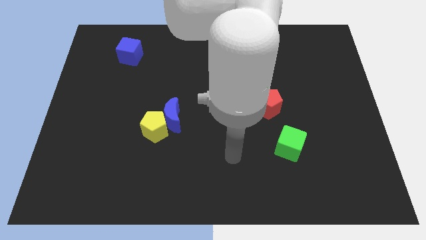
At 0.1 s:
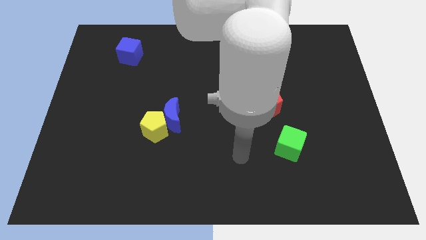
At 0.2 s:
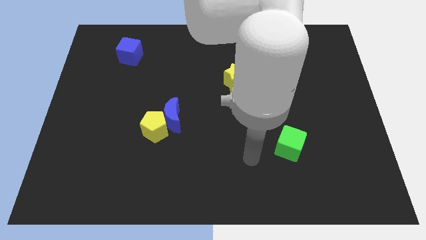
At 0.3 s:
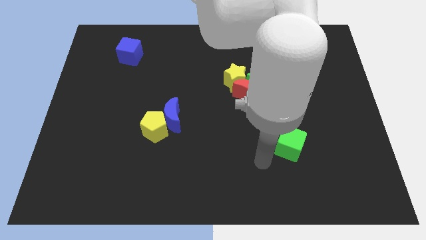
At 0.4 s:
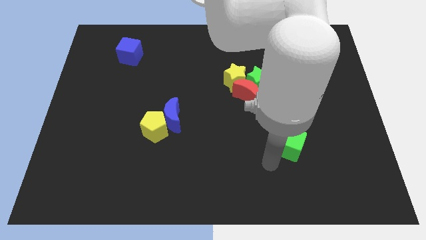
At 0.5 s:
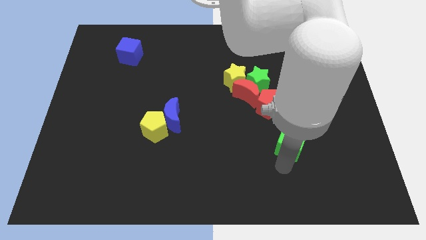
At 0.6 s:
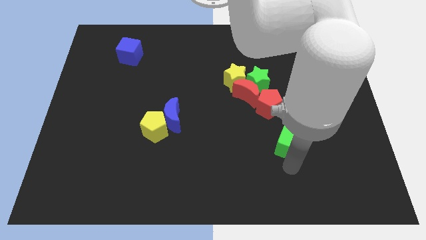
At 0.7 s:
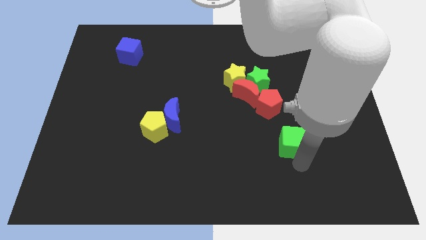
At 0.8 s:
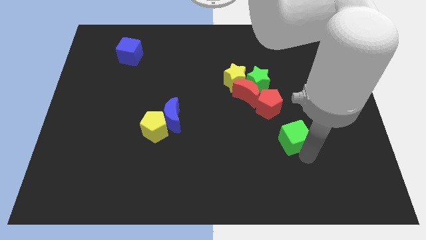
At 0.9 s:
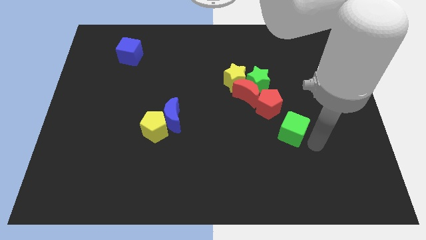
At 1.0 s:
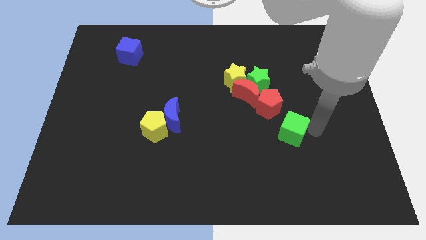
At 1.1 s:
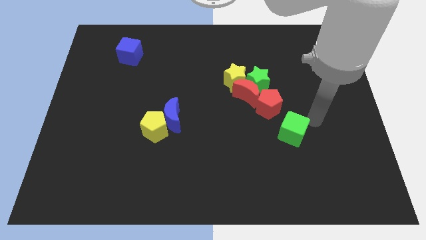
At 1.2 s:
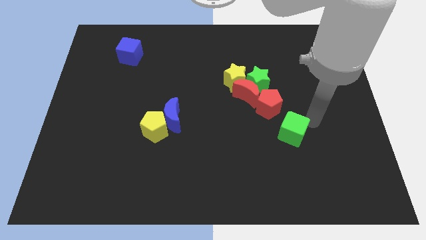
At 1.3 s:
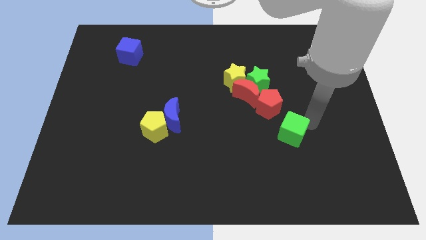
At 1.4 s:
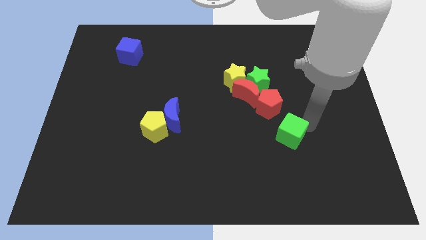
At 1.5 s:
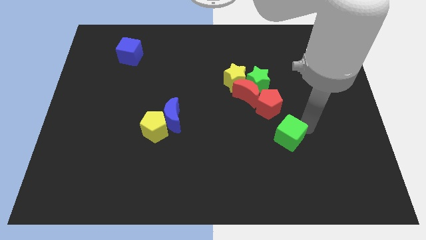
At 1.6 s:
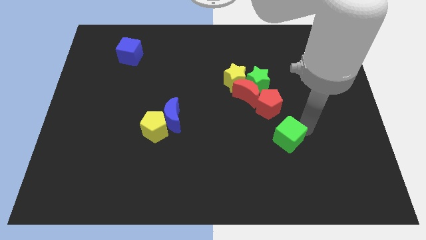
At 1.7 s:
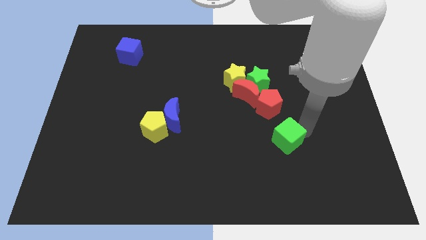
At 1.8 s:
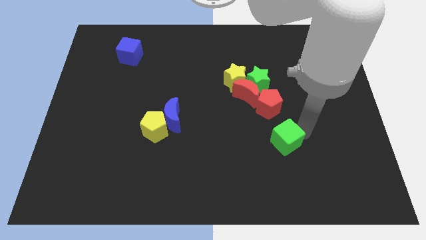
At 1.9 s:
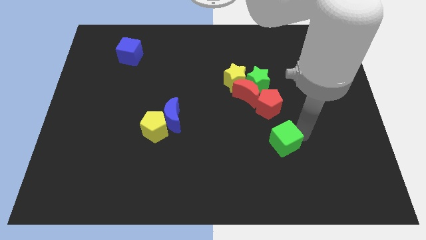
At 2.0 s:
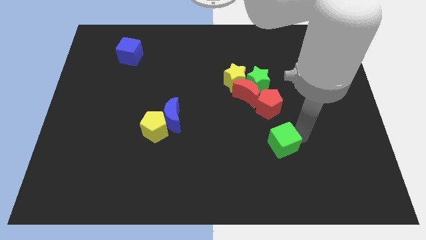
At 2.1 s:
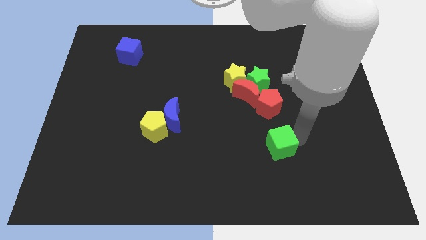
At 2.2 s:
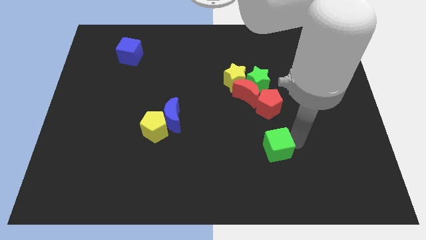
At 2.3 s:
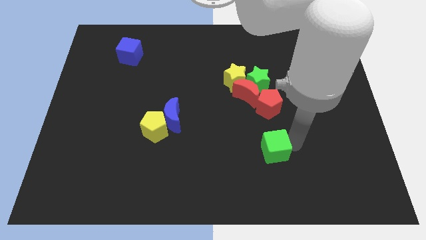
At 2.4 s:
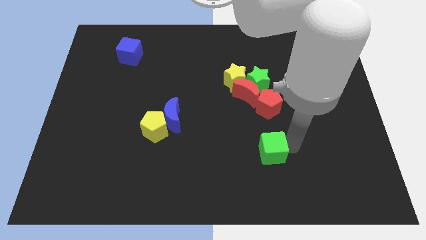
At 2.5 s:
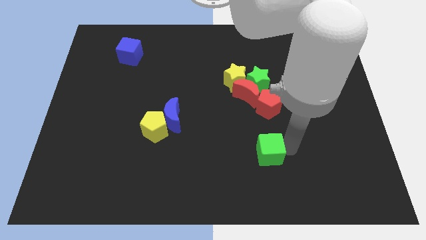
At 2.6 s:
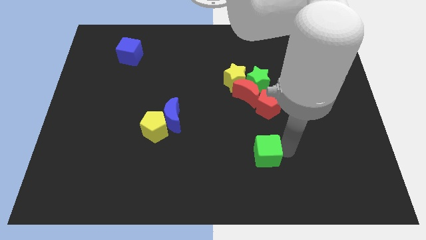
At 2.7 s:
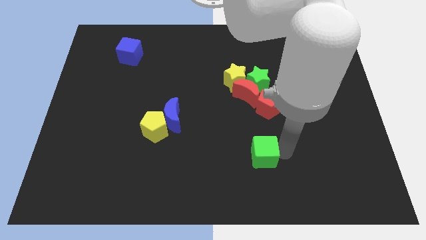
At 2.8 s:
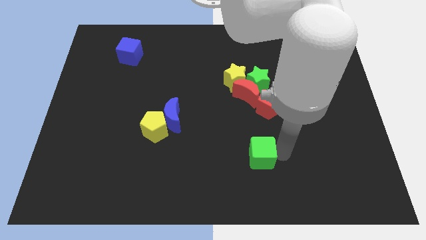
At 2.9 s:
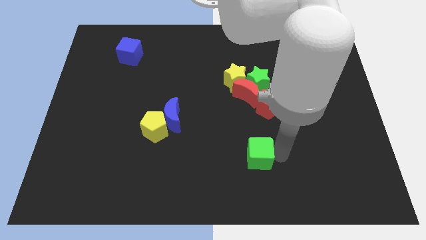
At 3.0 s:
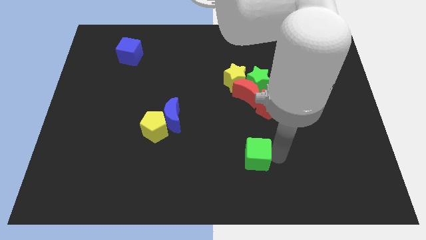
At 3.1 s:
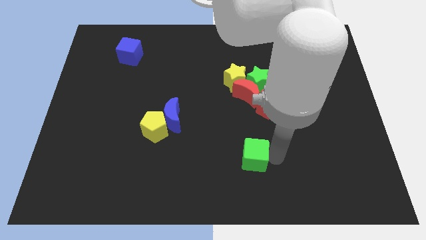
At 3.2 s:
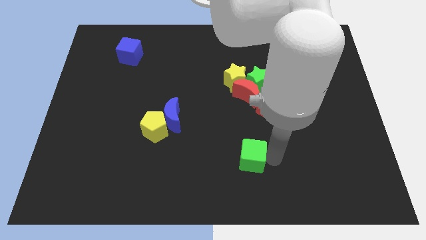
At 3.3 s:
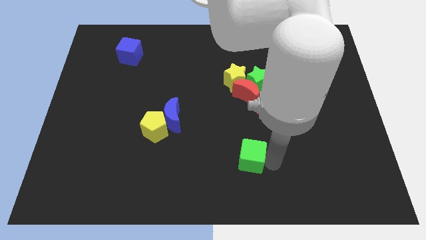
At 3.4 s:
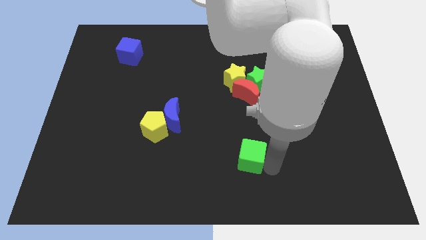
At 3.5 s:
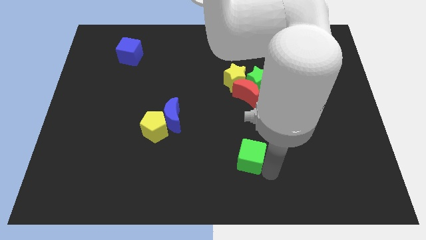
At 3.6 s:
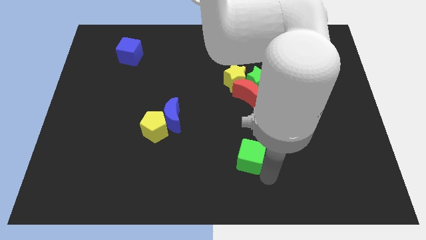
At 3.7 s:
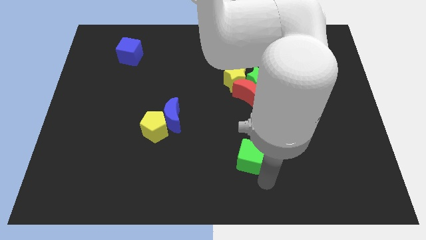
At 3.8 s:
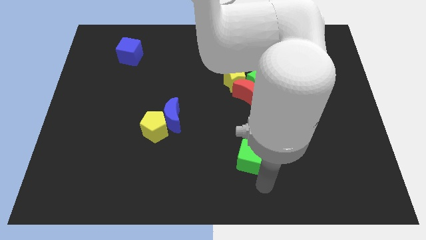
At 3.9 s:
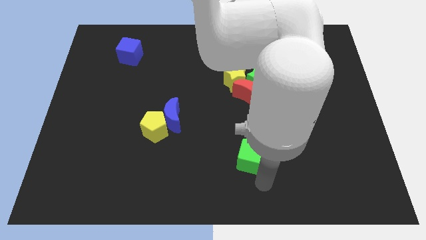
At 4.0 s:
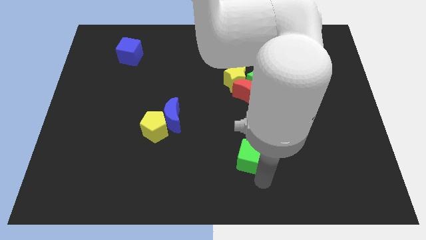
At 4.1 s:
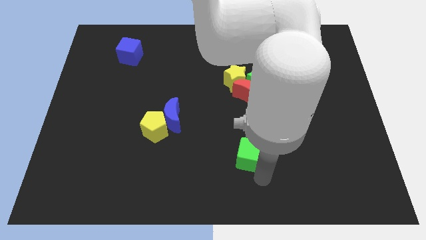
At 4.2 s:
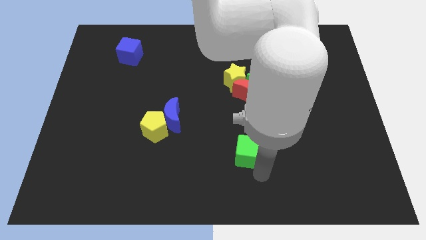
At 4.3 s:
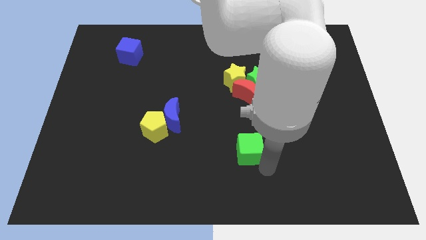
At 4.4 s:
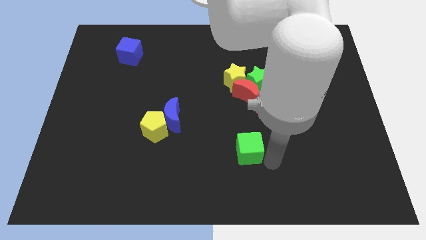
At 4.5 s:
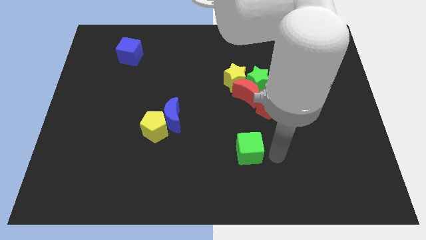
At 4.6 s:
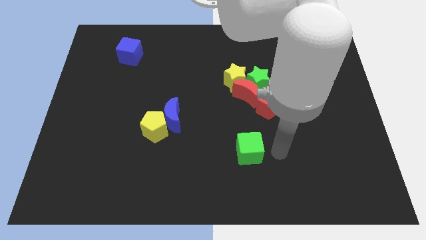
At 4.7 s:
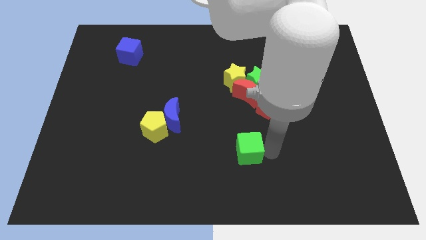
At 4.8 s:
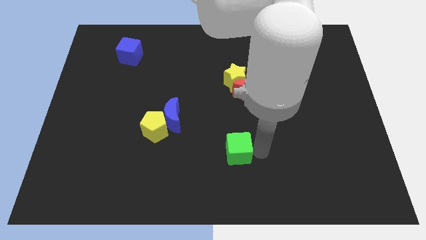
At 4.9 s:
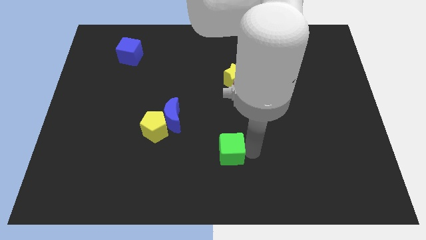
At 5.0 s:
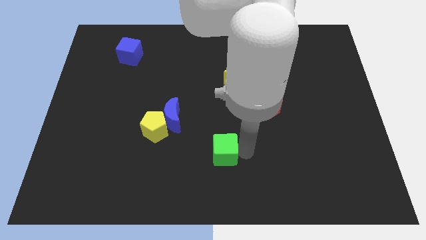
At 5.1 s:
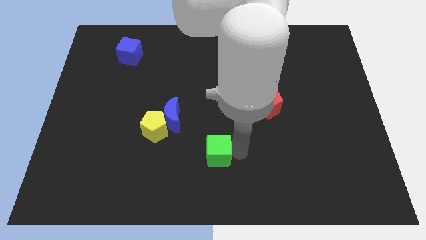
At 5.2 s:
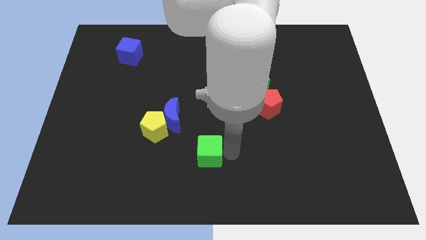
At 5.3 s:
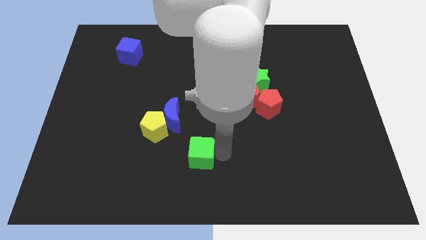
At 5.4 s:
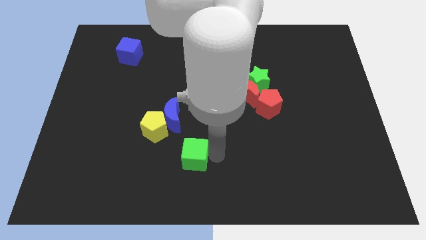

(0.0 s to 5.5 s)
slide the green cube to the left

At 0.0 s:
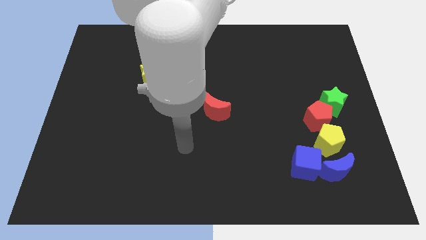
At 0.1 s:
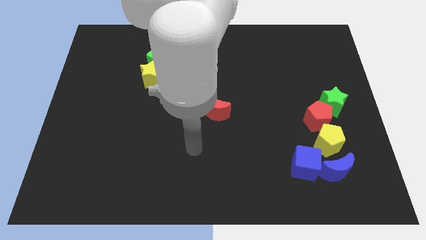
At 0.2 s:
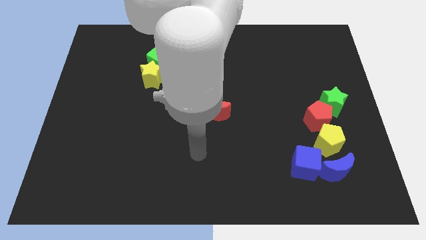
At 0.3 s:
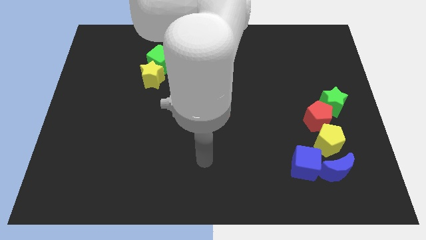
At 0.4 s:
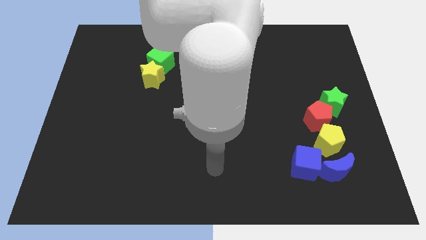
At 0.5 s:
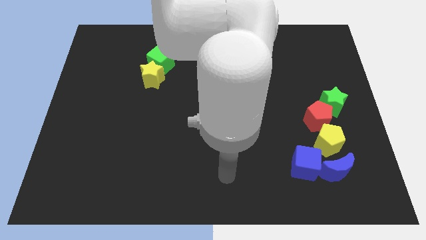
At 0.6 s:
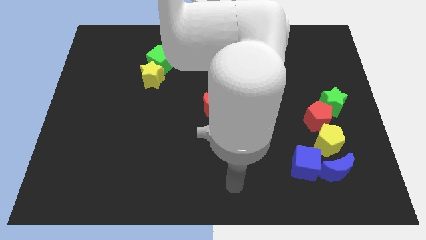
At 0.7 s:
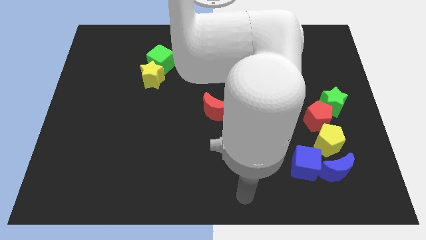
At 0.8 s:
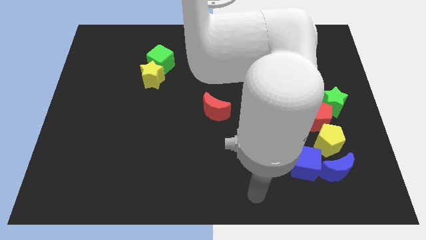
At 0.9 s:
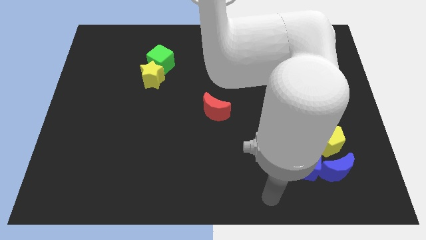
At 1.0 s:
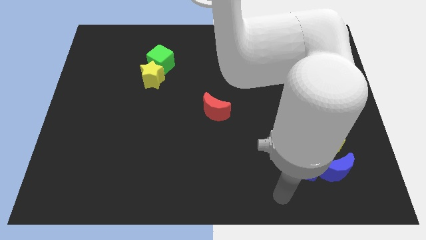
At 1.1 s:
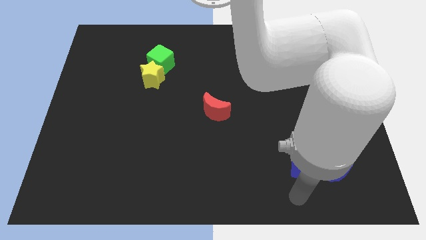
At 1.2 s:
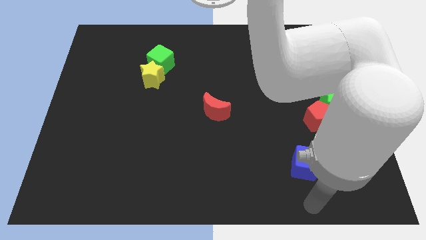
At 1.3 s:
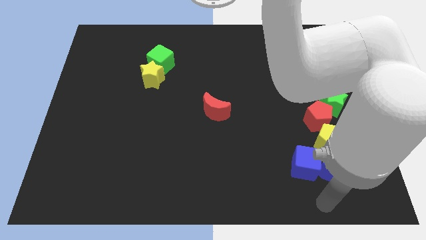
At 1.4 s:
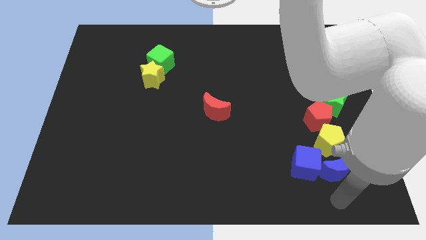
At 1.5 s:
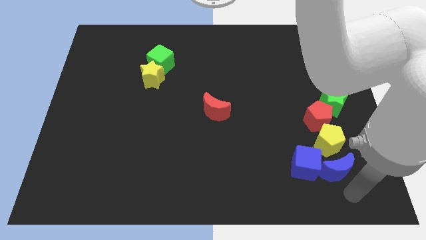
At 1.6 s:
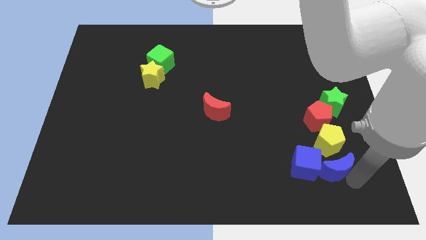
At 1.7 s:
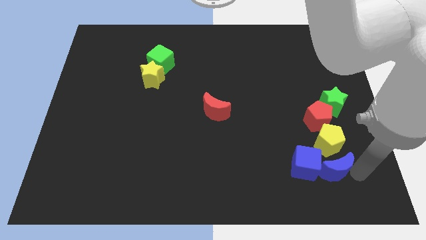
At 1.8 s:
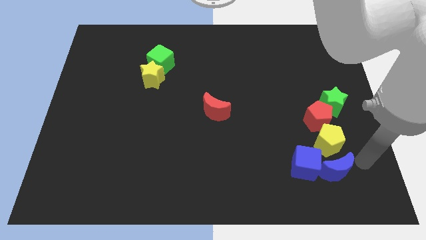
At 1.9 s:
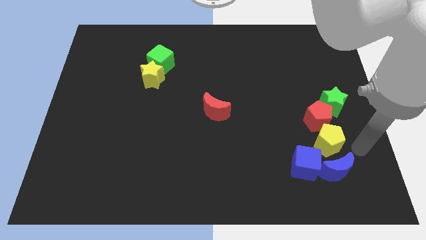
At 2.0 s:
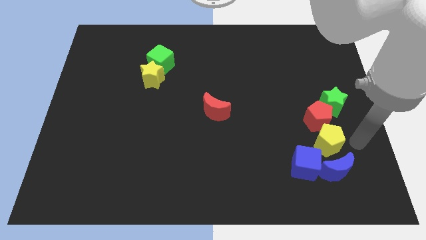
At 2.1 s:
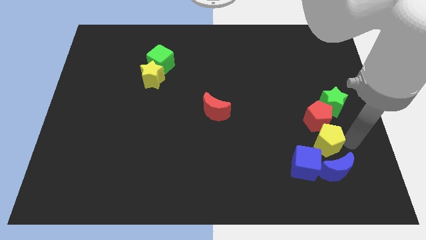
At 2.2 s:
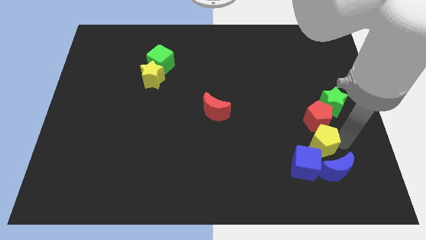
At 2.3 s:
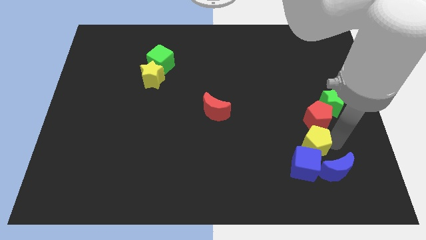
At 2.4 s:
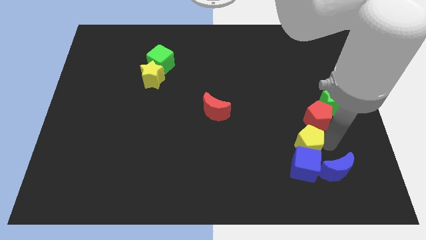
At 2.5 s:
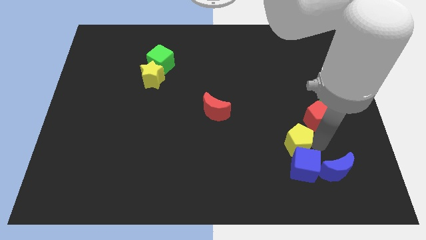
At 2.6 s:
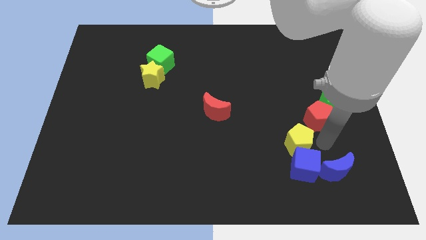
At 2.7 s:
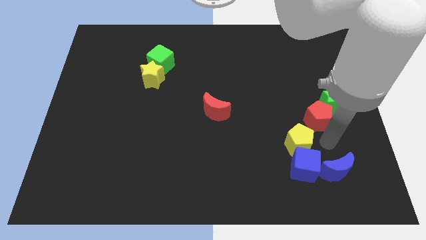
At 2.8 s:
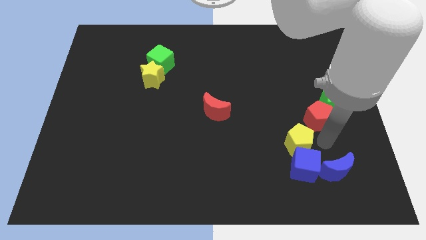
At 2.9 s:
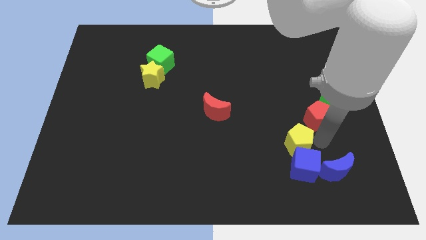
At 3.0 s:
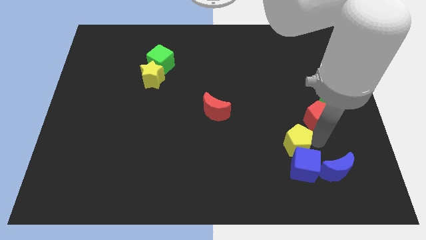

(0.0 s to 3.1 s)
move the yellow pentagon a little to the left
